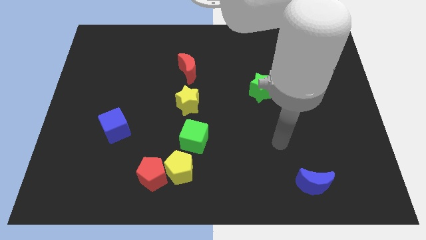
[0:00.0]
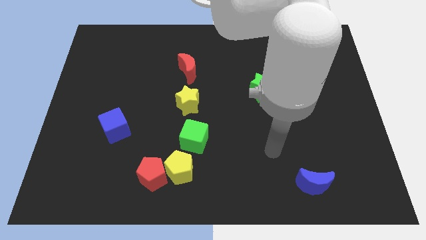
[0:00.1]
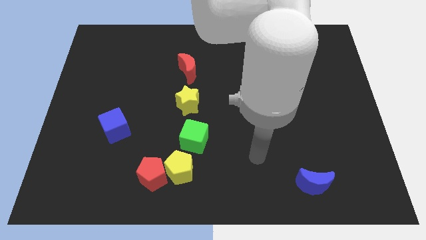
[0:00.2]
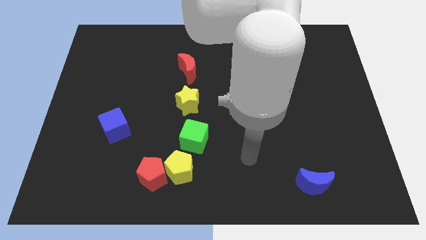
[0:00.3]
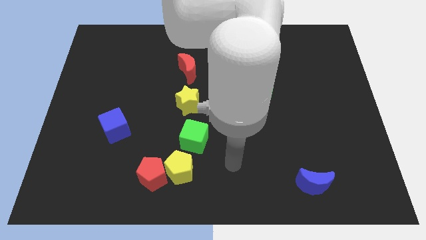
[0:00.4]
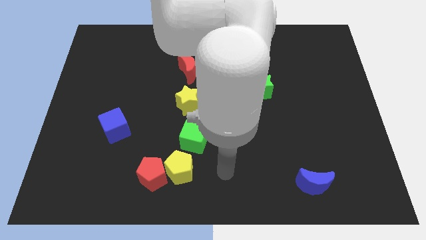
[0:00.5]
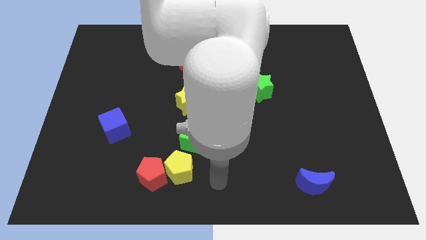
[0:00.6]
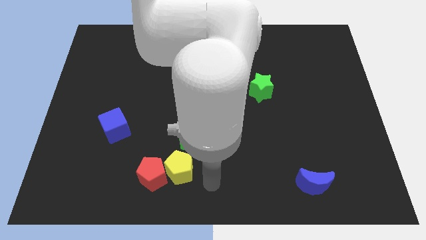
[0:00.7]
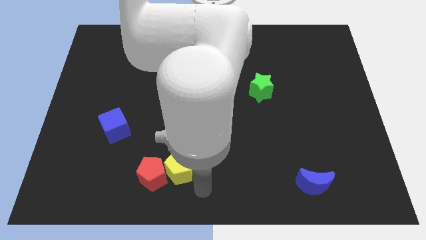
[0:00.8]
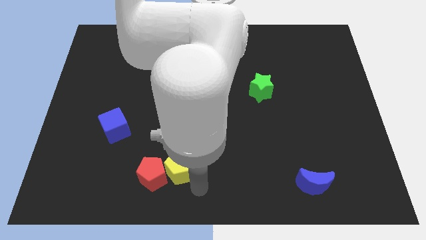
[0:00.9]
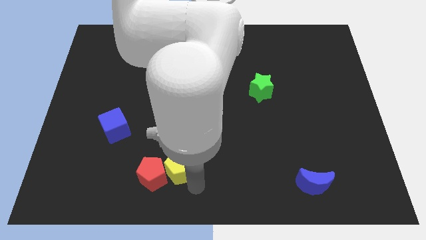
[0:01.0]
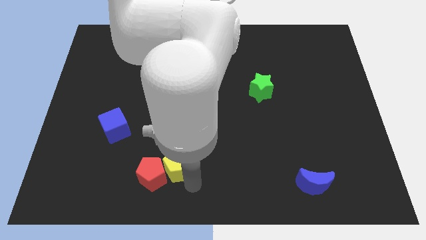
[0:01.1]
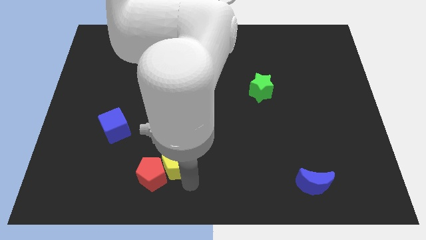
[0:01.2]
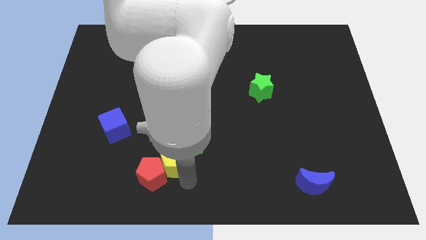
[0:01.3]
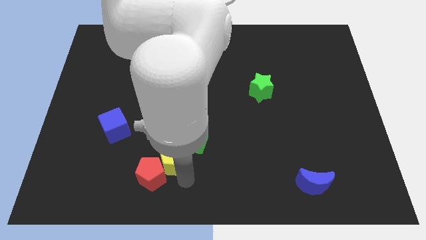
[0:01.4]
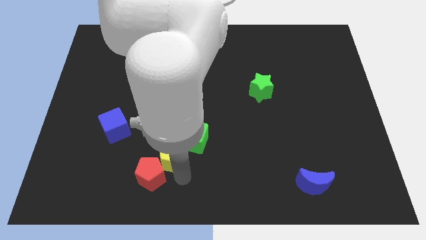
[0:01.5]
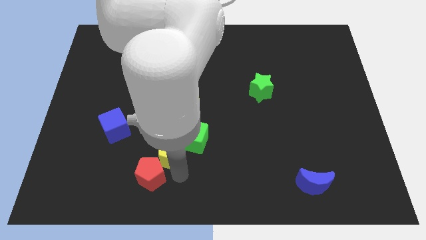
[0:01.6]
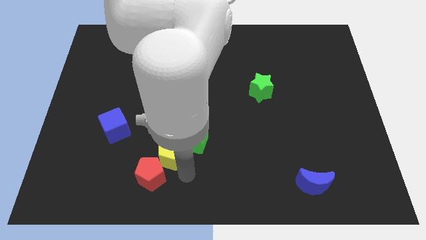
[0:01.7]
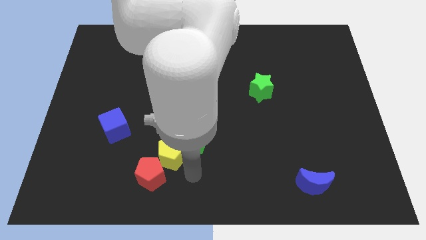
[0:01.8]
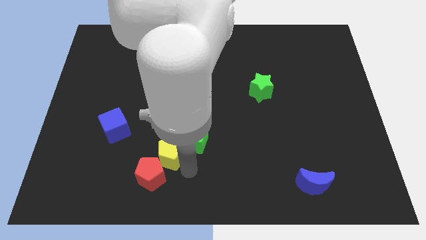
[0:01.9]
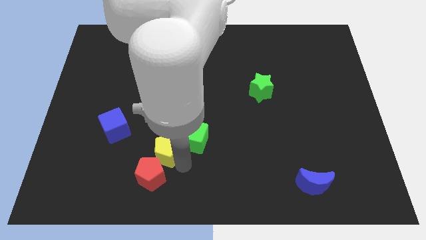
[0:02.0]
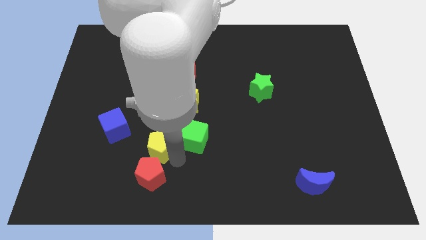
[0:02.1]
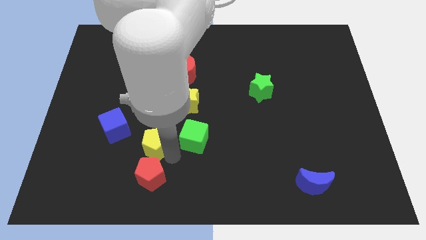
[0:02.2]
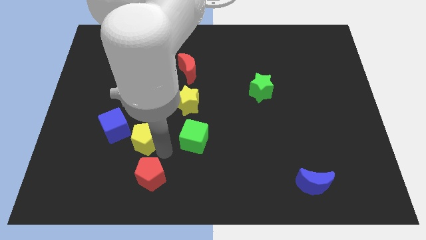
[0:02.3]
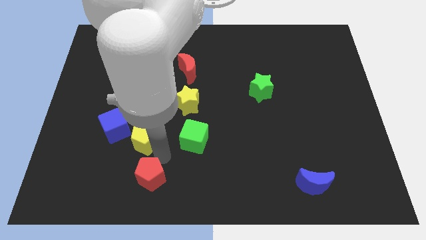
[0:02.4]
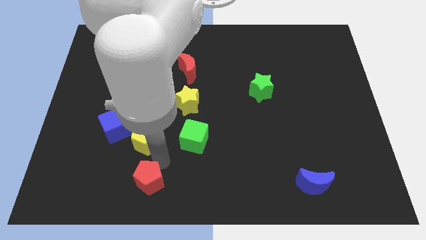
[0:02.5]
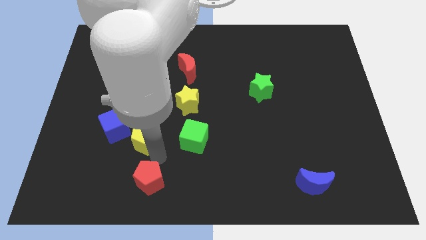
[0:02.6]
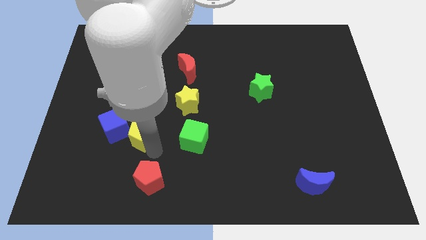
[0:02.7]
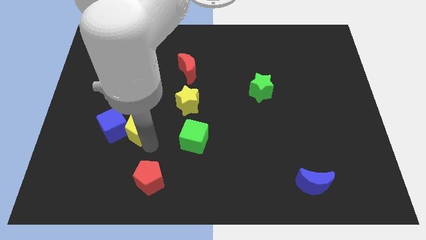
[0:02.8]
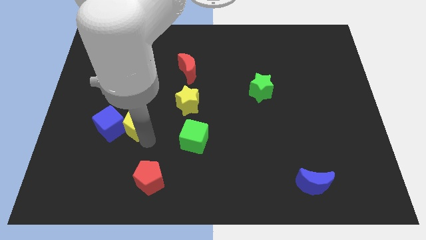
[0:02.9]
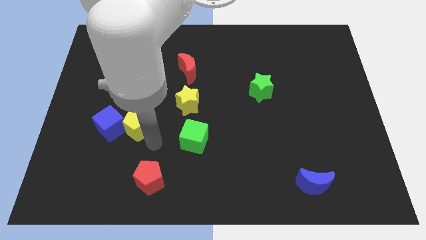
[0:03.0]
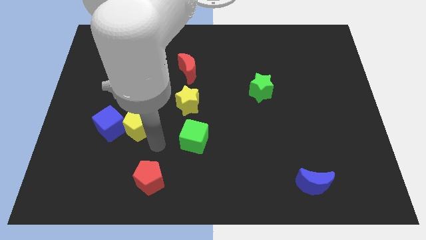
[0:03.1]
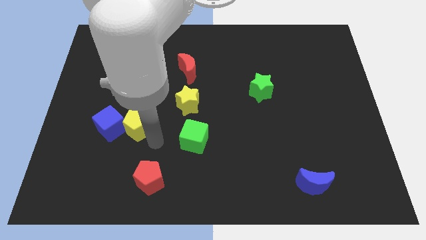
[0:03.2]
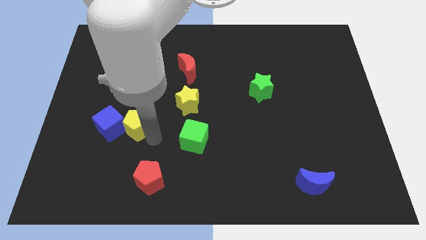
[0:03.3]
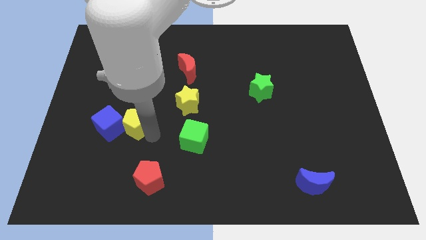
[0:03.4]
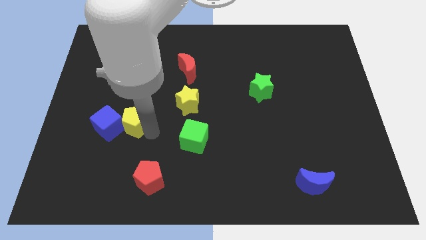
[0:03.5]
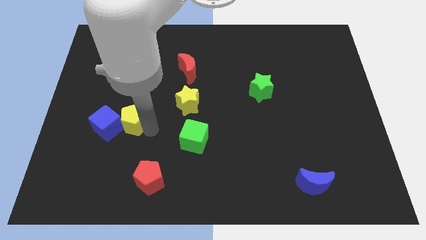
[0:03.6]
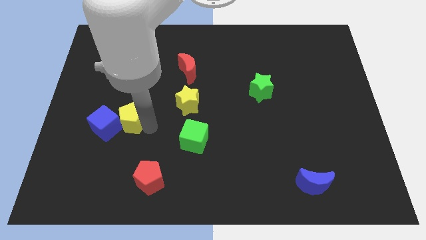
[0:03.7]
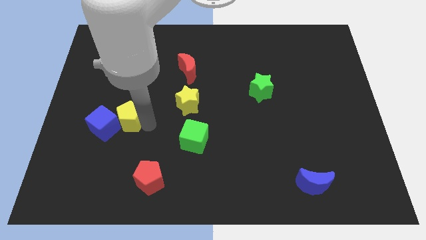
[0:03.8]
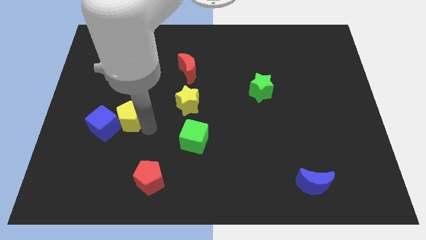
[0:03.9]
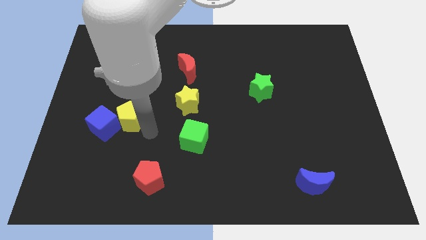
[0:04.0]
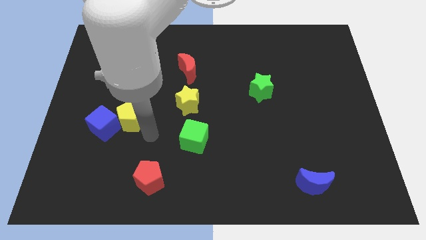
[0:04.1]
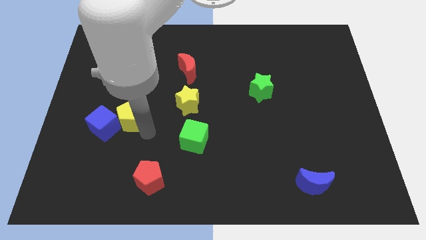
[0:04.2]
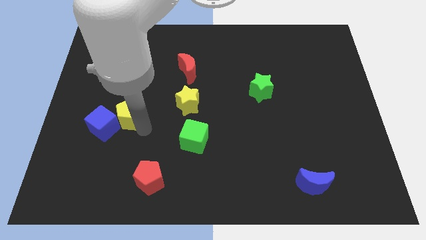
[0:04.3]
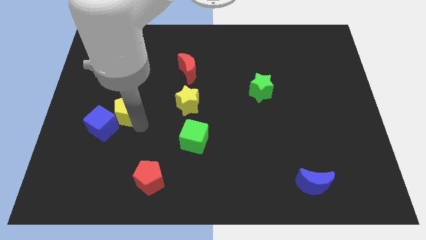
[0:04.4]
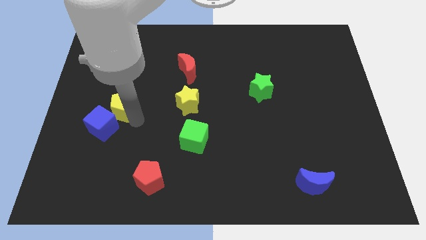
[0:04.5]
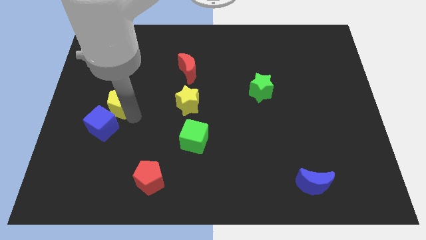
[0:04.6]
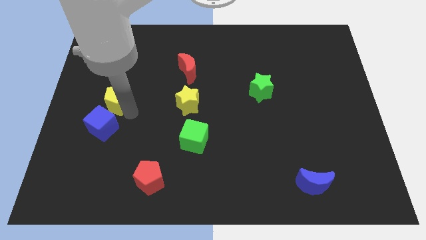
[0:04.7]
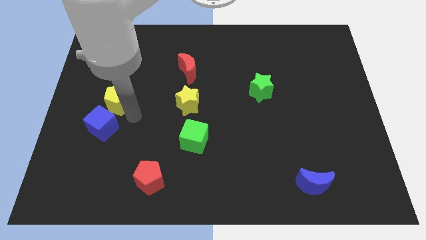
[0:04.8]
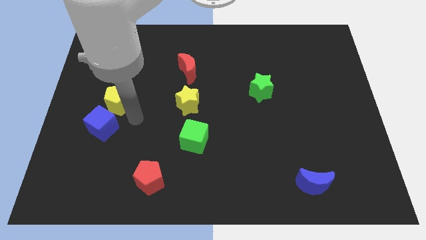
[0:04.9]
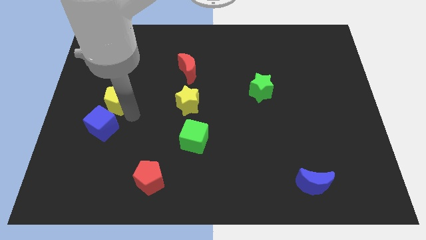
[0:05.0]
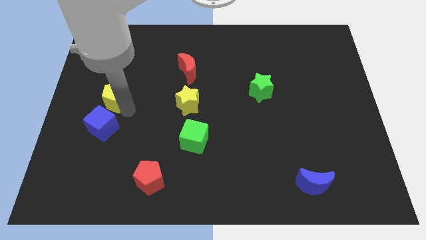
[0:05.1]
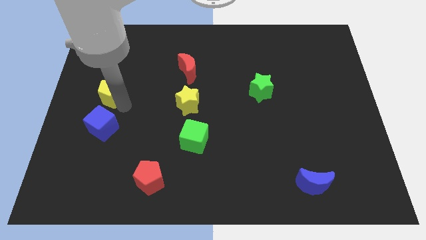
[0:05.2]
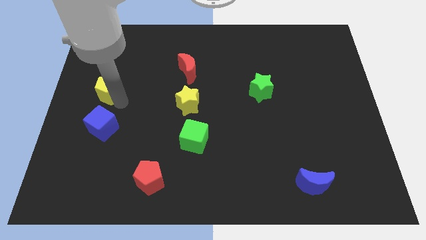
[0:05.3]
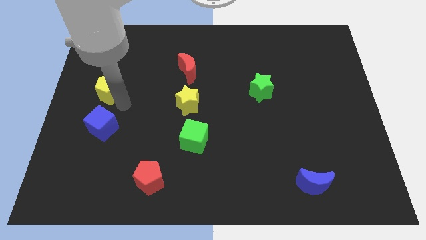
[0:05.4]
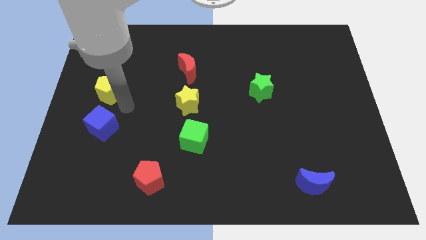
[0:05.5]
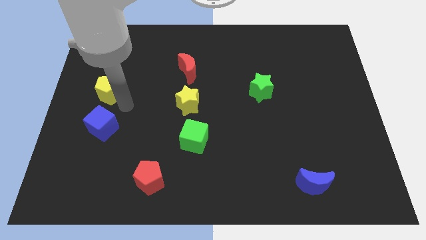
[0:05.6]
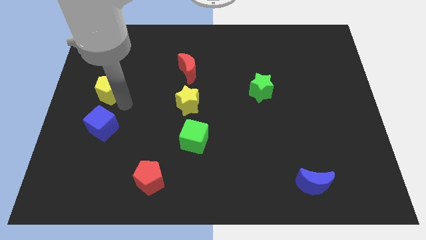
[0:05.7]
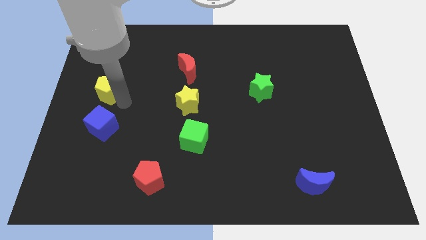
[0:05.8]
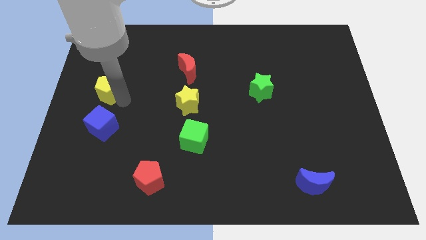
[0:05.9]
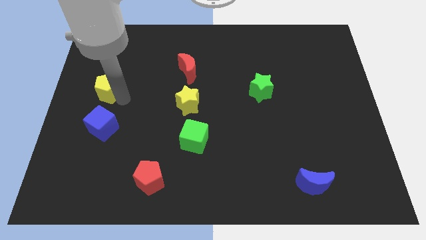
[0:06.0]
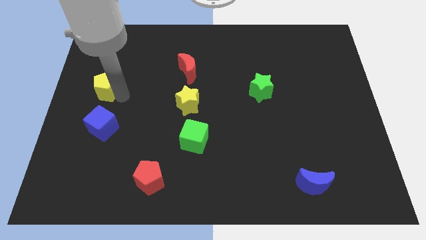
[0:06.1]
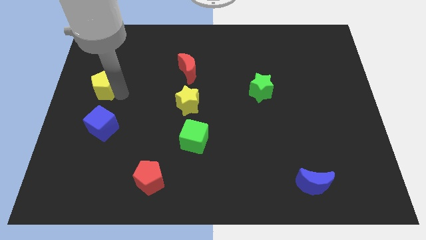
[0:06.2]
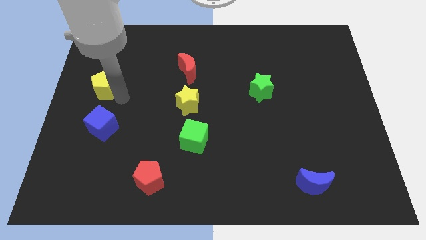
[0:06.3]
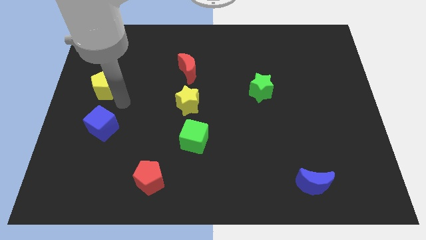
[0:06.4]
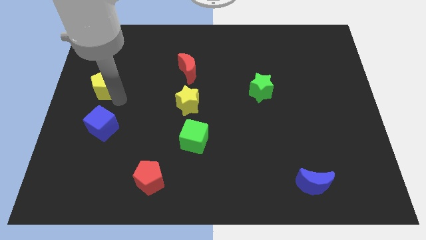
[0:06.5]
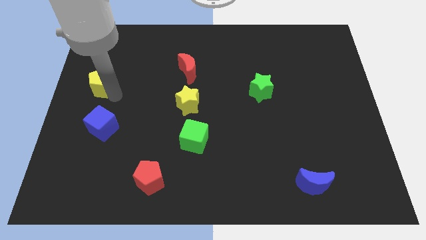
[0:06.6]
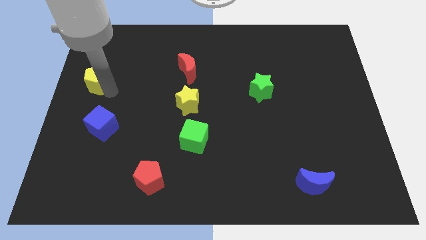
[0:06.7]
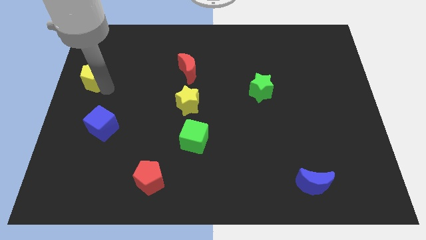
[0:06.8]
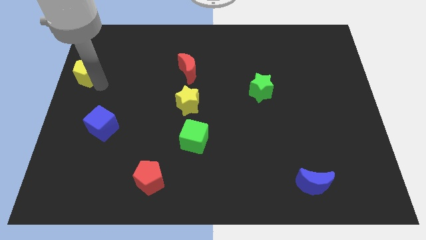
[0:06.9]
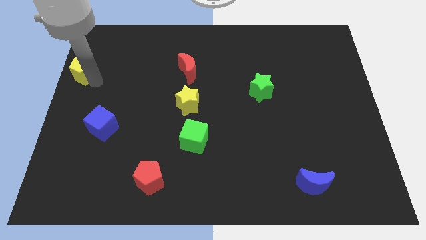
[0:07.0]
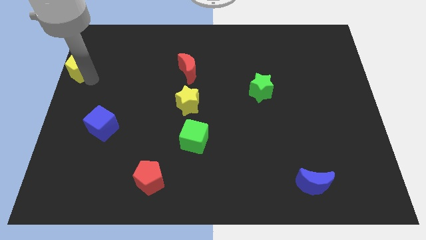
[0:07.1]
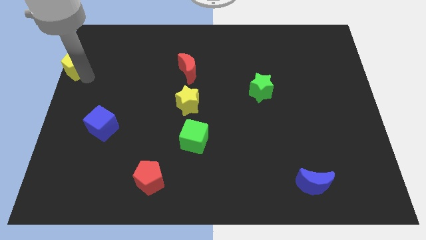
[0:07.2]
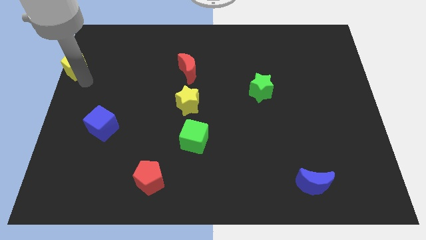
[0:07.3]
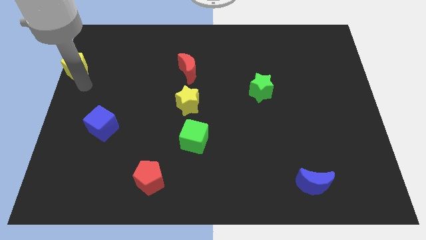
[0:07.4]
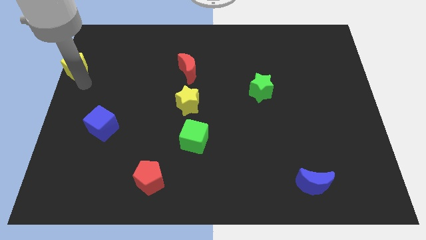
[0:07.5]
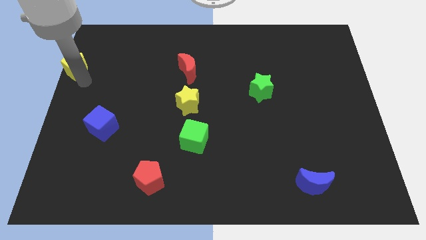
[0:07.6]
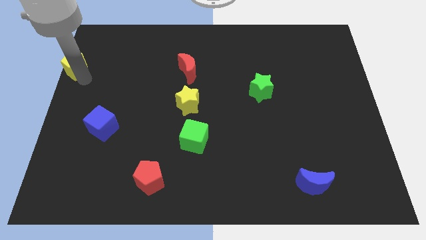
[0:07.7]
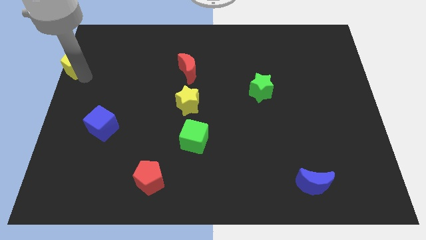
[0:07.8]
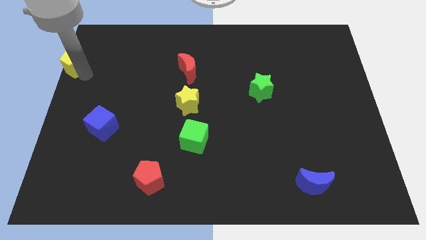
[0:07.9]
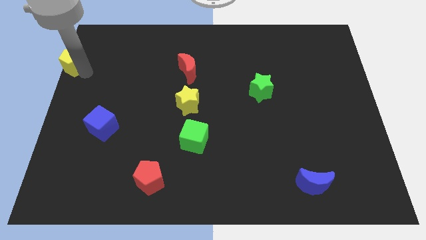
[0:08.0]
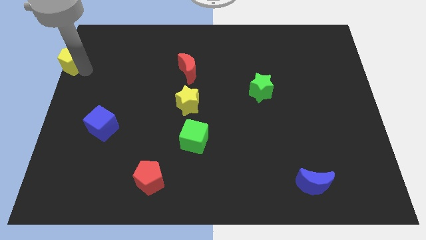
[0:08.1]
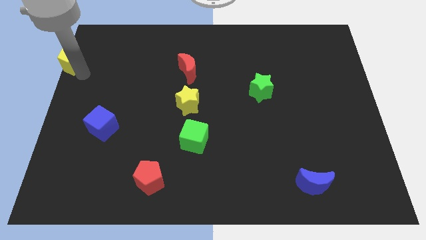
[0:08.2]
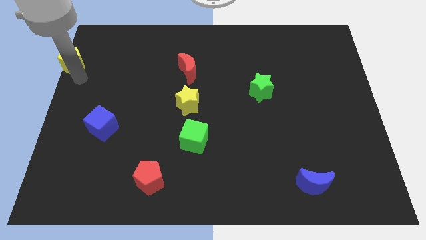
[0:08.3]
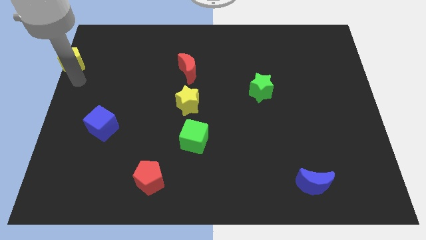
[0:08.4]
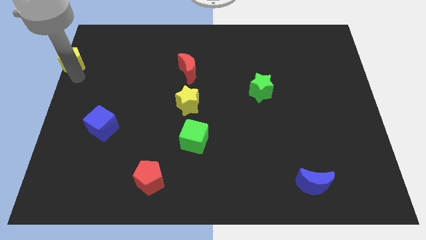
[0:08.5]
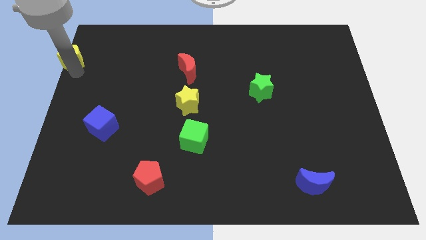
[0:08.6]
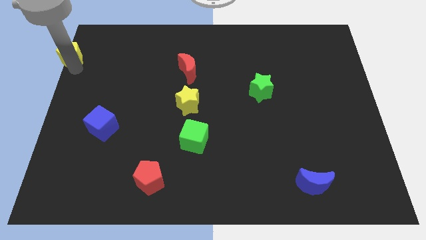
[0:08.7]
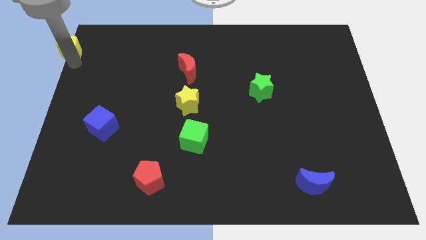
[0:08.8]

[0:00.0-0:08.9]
move the yellow pentagon to the top left of the board
